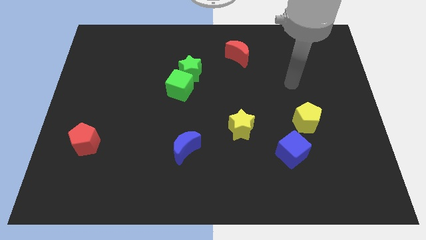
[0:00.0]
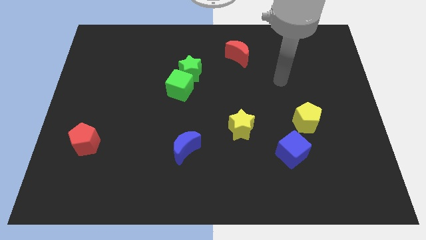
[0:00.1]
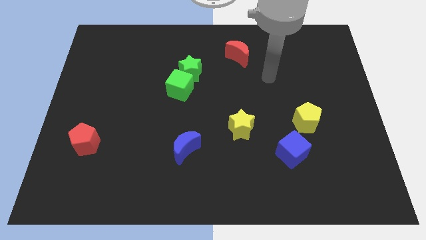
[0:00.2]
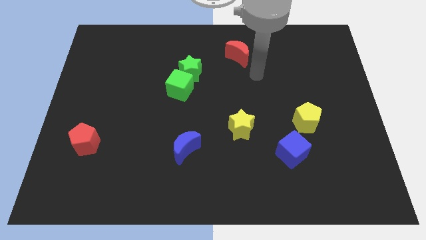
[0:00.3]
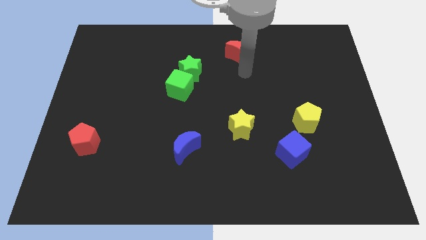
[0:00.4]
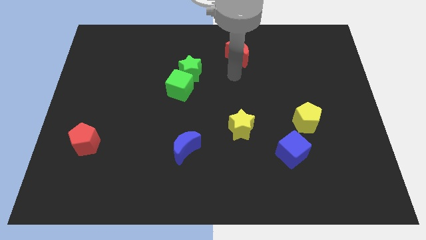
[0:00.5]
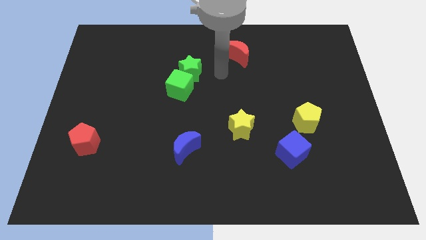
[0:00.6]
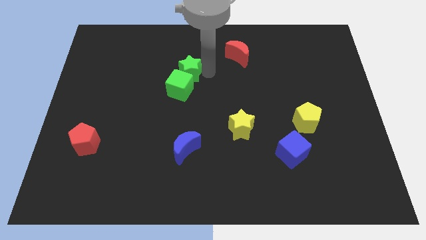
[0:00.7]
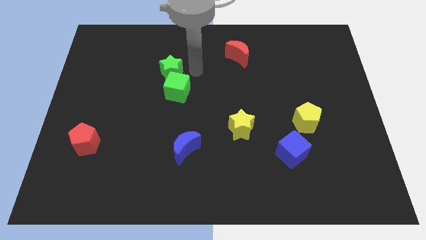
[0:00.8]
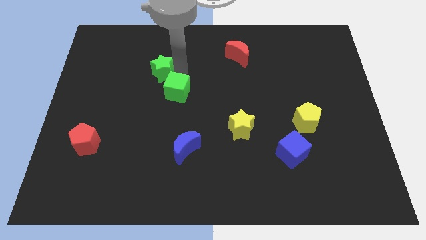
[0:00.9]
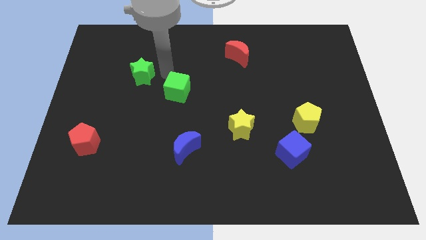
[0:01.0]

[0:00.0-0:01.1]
pull the green cube apart from the green star

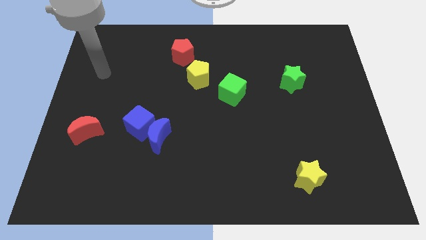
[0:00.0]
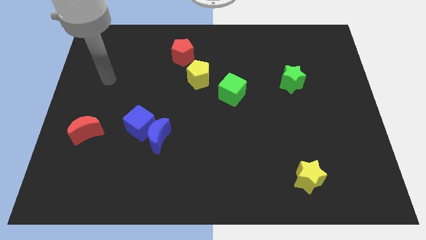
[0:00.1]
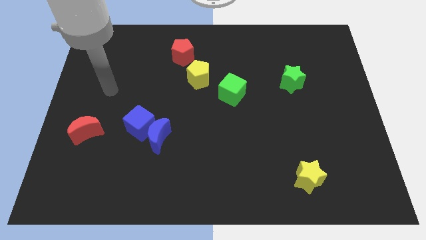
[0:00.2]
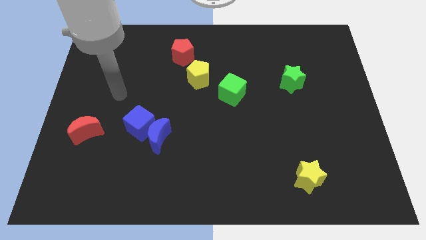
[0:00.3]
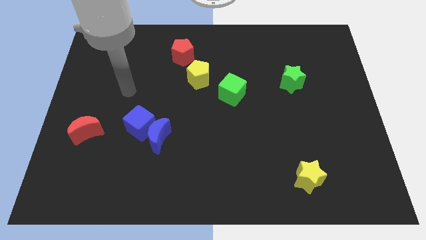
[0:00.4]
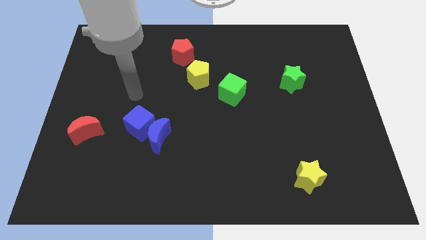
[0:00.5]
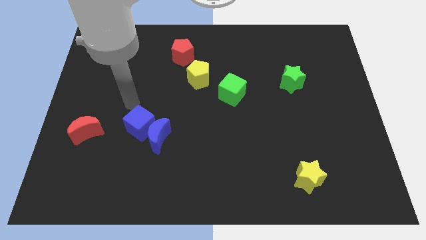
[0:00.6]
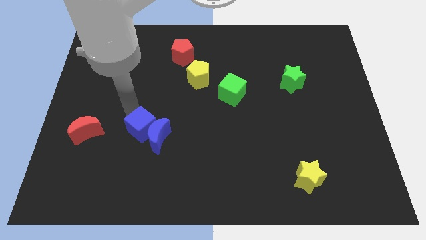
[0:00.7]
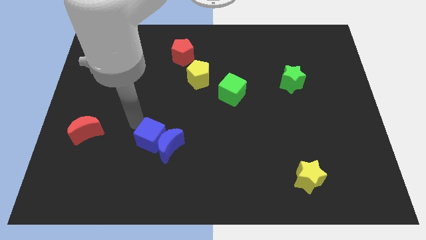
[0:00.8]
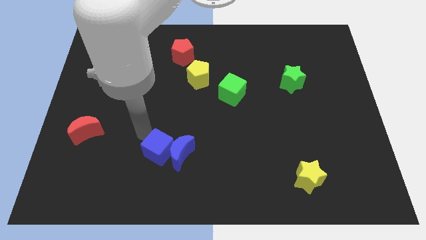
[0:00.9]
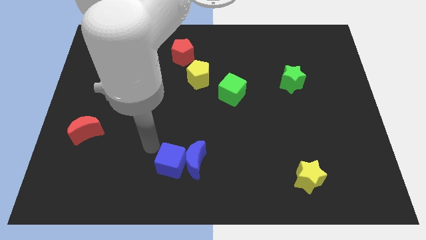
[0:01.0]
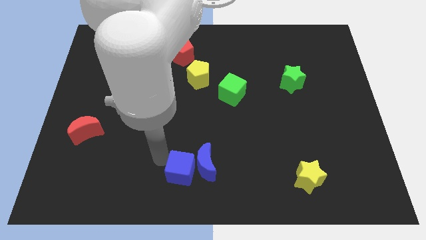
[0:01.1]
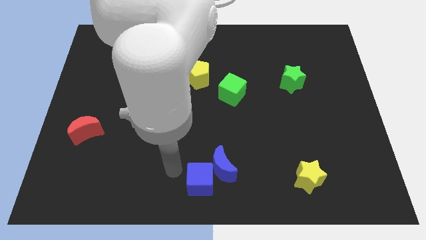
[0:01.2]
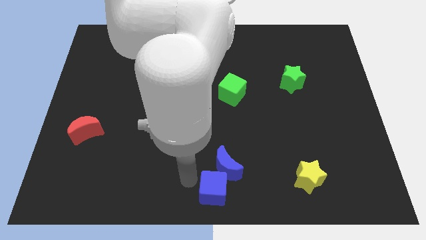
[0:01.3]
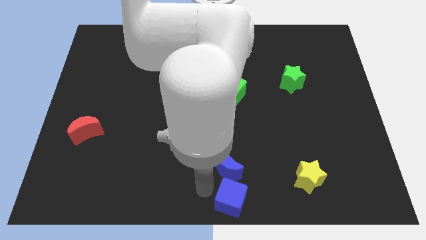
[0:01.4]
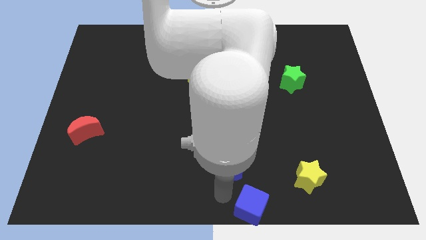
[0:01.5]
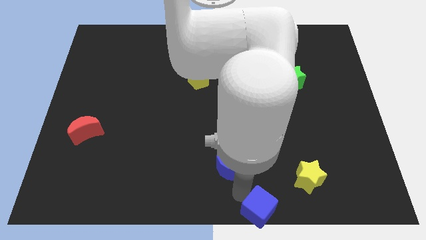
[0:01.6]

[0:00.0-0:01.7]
move the blue moon away from the blue cube

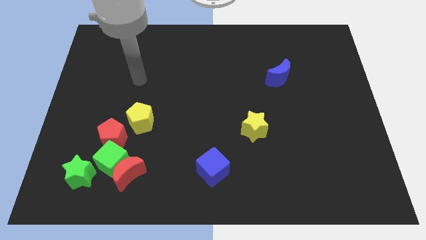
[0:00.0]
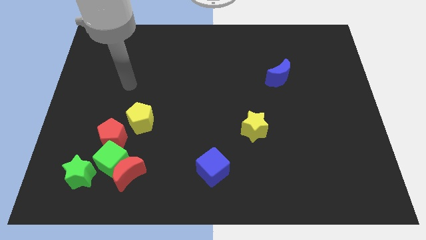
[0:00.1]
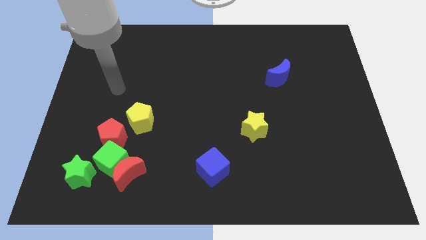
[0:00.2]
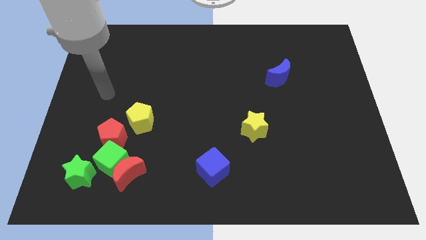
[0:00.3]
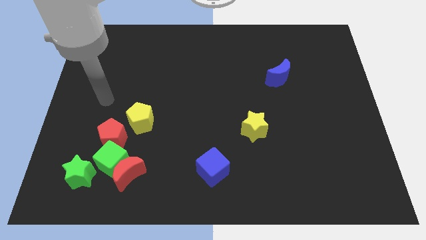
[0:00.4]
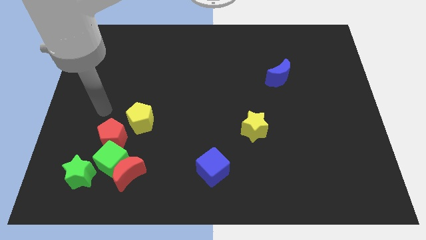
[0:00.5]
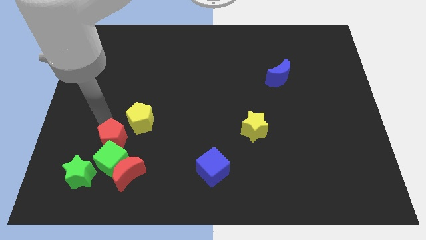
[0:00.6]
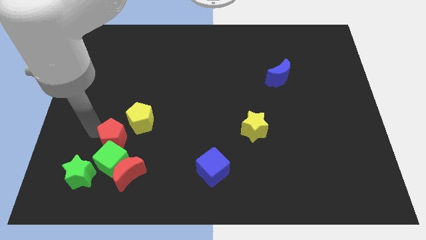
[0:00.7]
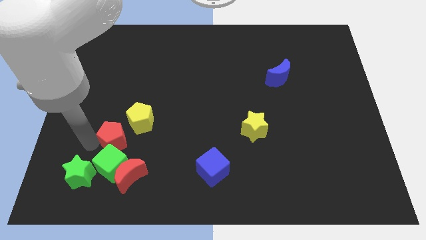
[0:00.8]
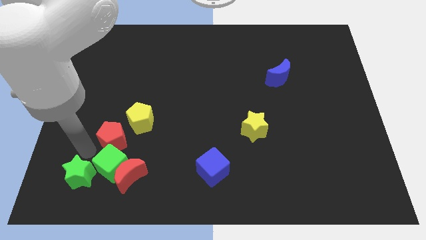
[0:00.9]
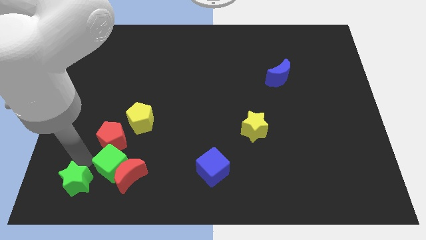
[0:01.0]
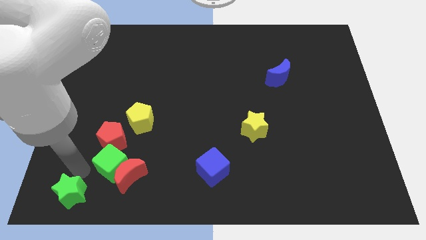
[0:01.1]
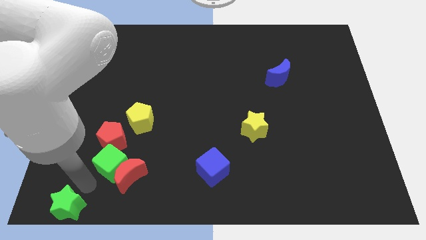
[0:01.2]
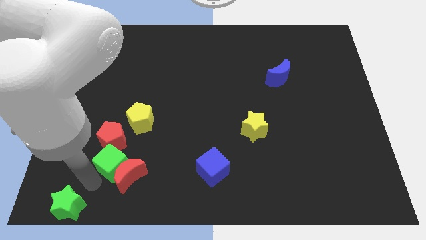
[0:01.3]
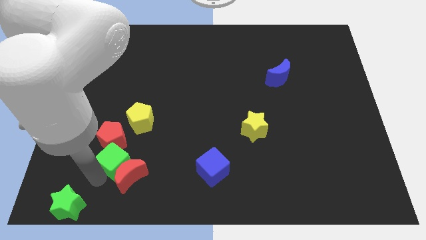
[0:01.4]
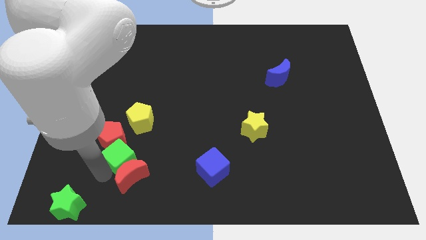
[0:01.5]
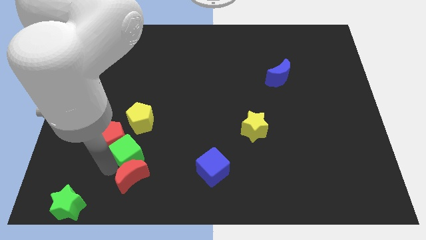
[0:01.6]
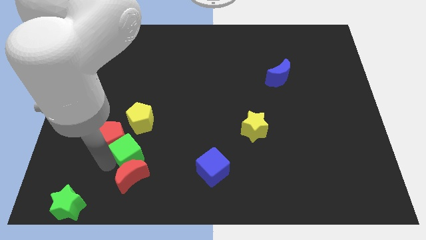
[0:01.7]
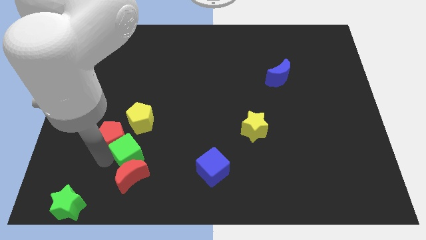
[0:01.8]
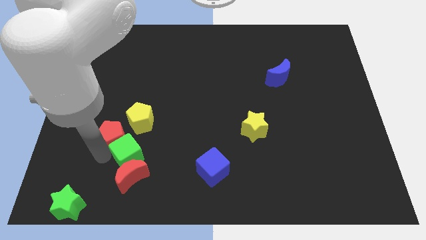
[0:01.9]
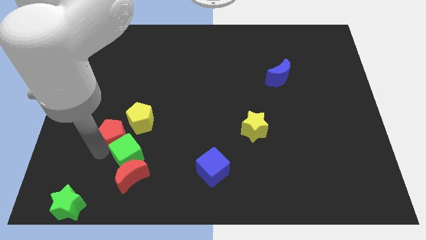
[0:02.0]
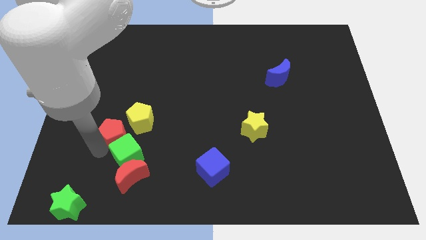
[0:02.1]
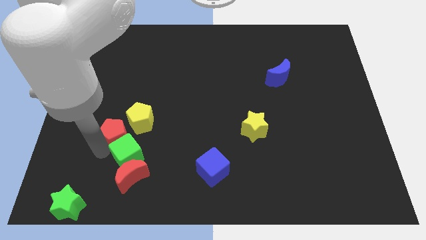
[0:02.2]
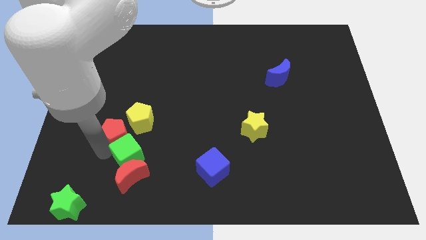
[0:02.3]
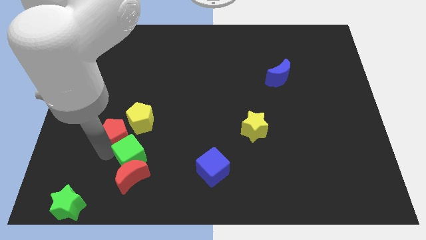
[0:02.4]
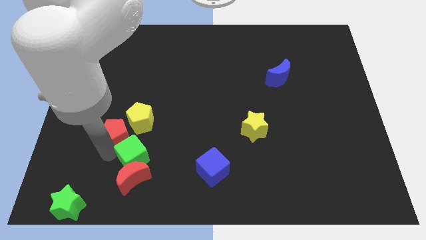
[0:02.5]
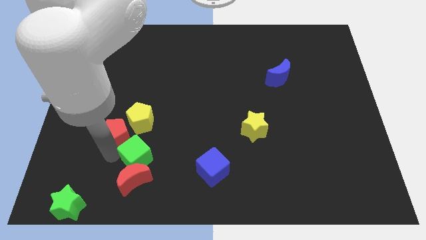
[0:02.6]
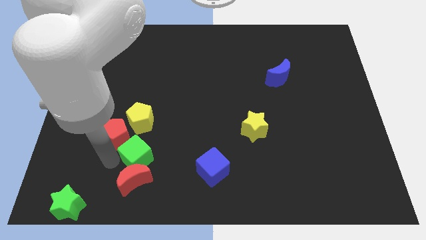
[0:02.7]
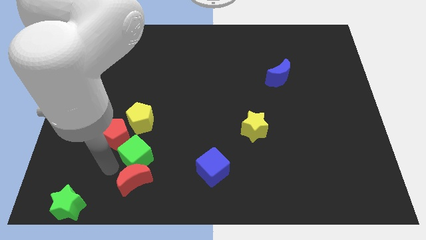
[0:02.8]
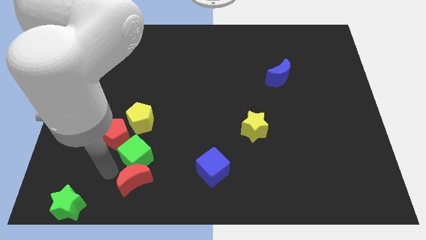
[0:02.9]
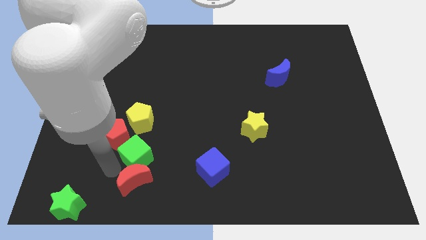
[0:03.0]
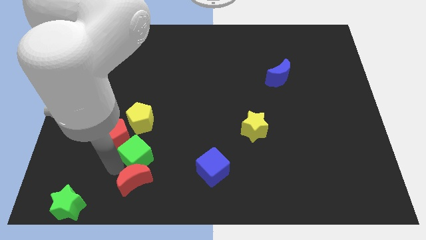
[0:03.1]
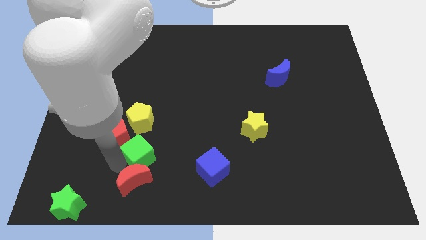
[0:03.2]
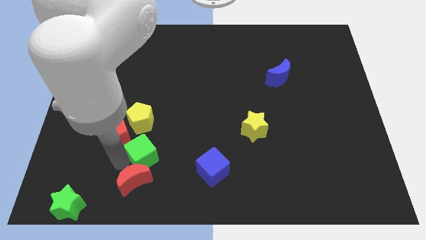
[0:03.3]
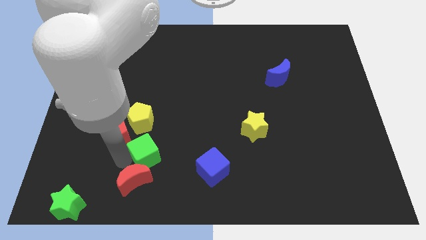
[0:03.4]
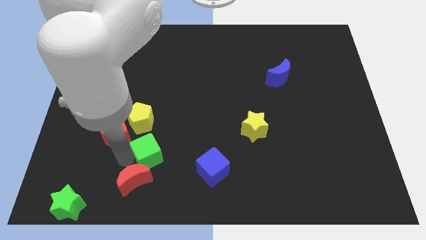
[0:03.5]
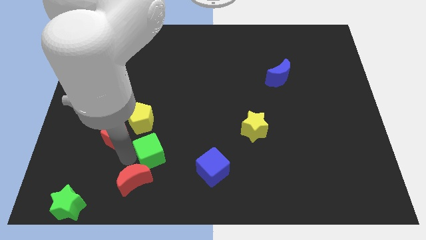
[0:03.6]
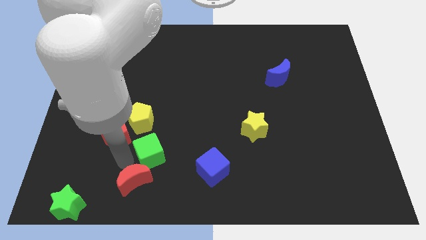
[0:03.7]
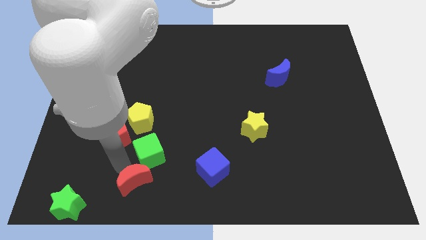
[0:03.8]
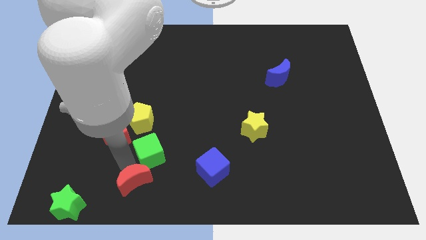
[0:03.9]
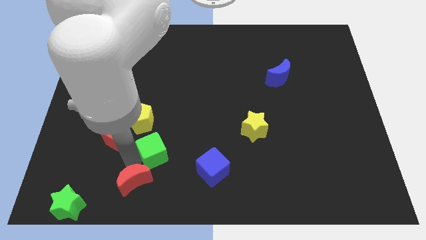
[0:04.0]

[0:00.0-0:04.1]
pull the green cube apart from the group

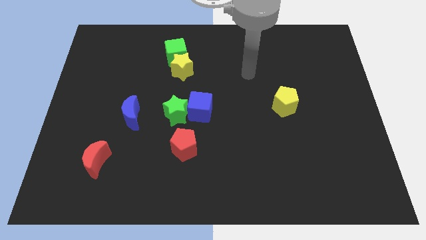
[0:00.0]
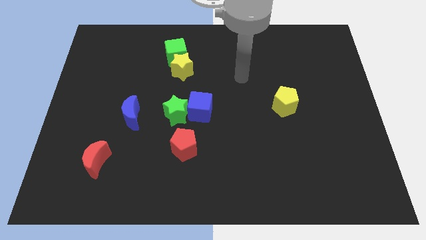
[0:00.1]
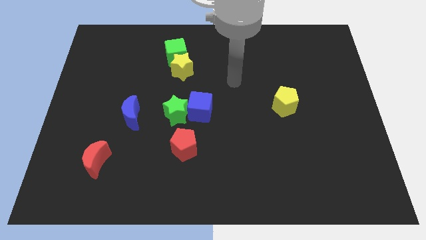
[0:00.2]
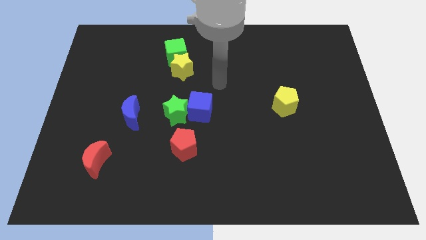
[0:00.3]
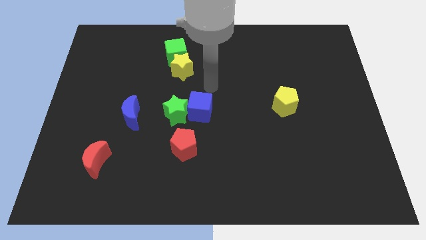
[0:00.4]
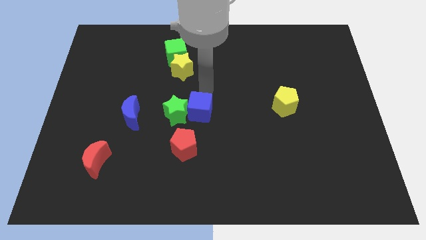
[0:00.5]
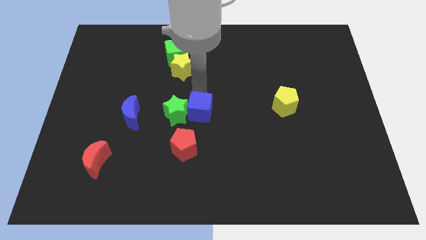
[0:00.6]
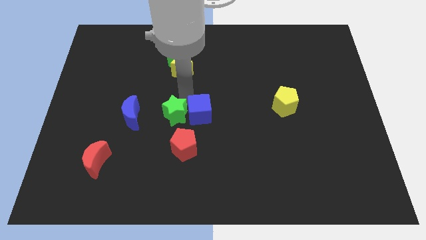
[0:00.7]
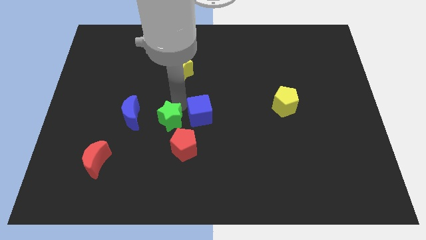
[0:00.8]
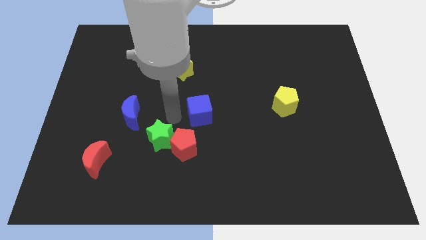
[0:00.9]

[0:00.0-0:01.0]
pull the blue cube apart from the green star

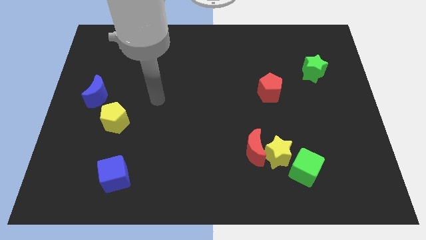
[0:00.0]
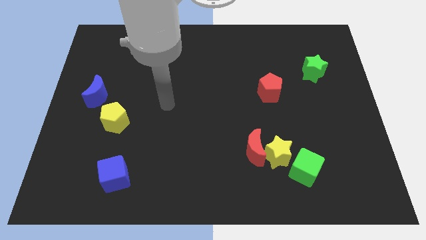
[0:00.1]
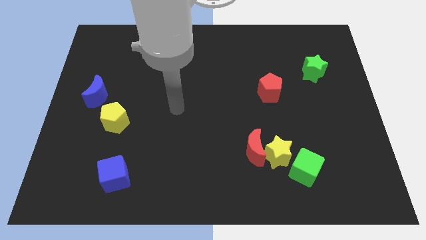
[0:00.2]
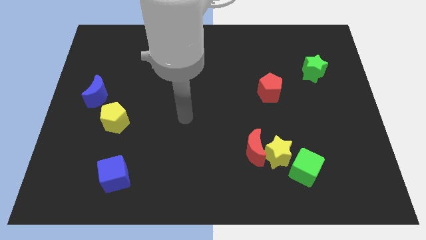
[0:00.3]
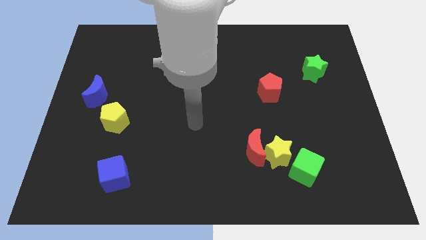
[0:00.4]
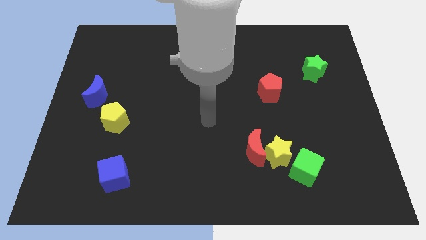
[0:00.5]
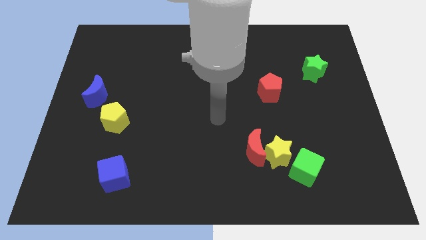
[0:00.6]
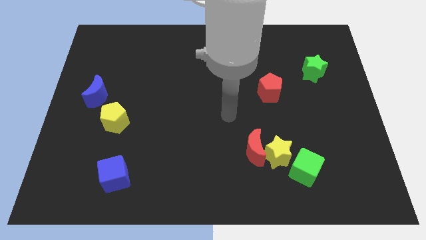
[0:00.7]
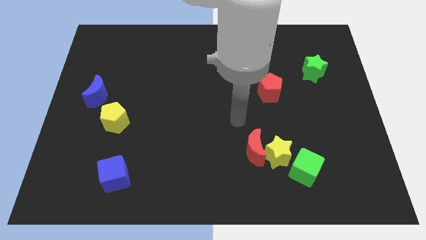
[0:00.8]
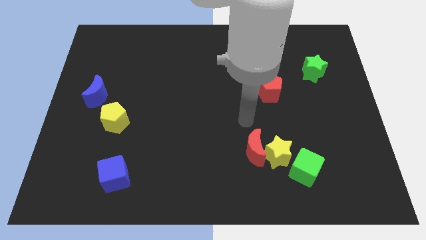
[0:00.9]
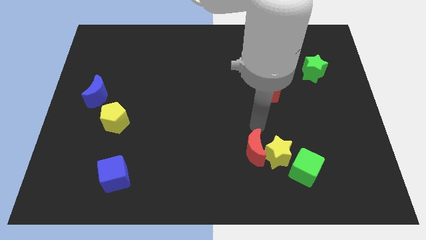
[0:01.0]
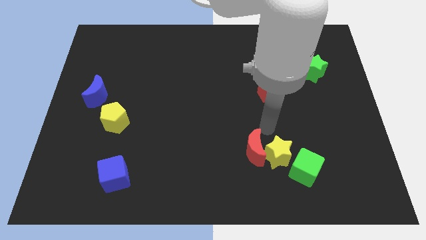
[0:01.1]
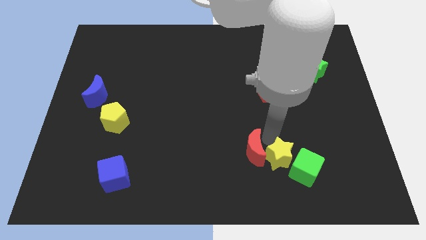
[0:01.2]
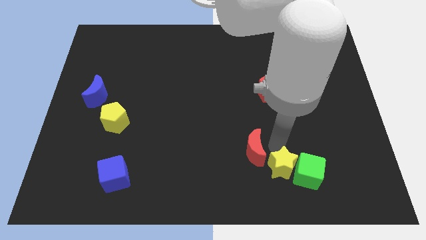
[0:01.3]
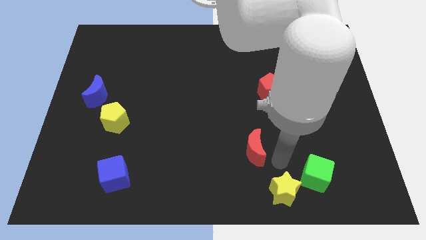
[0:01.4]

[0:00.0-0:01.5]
separate the red moon from the yellow star
